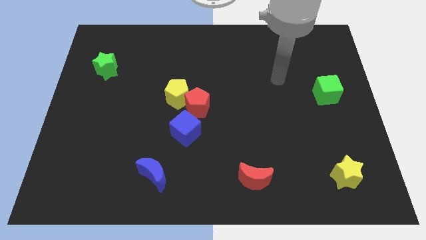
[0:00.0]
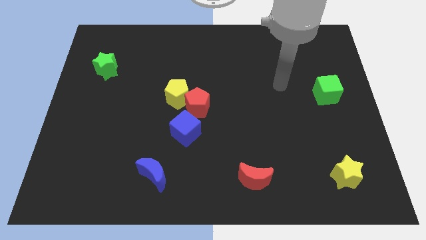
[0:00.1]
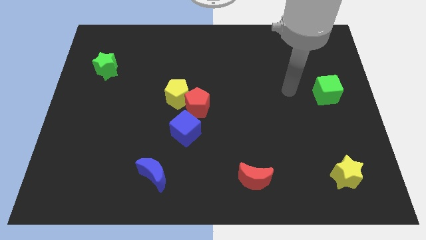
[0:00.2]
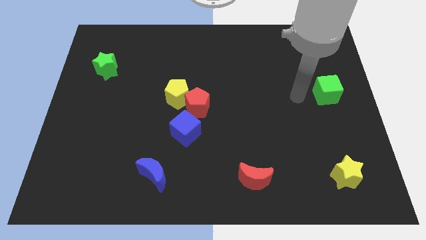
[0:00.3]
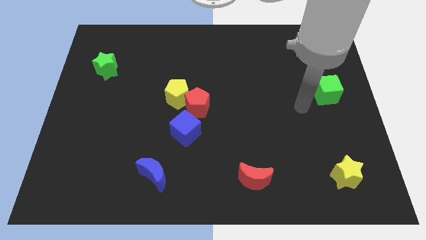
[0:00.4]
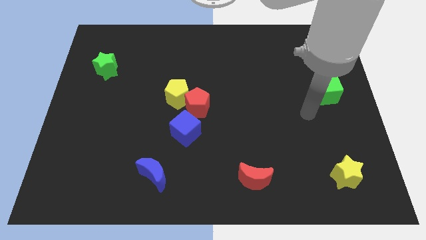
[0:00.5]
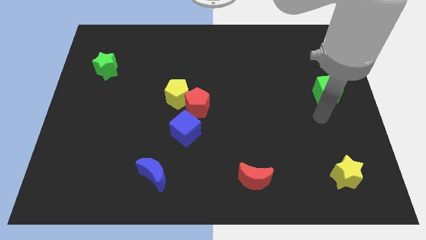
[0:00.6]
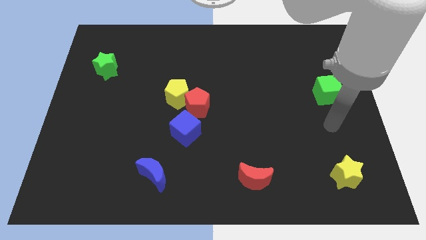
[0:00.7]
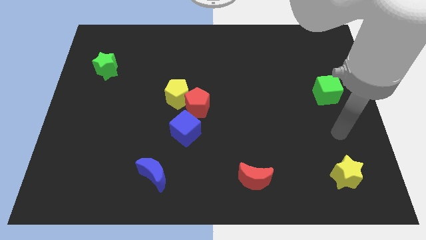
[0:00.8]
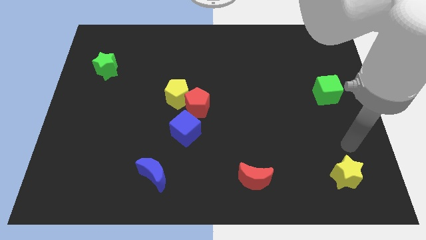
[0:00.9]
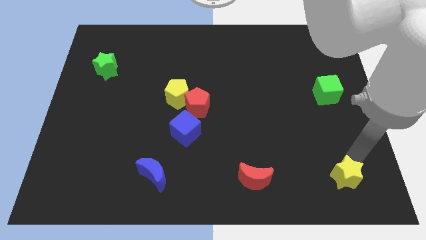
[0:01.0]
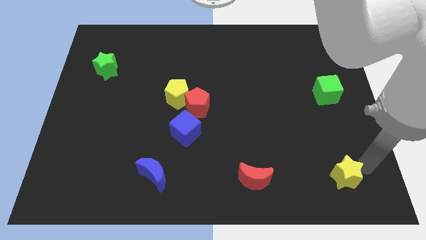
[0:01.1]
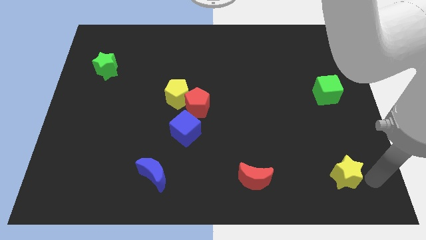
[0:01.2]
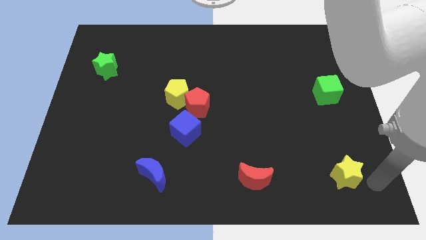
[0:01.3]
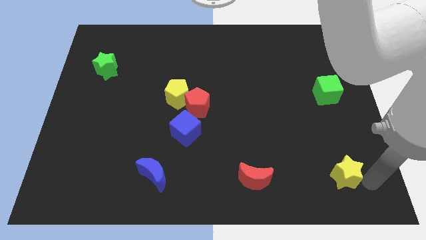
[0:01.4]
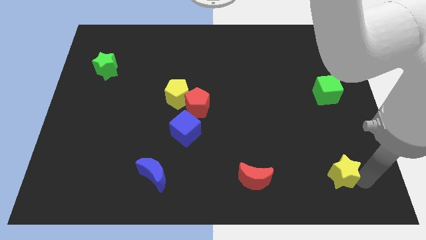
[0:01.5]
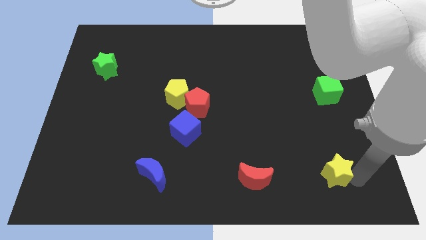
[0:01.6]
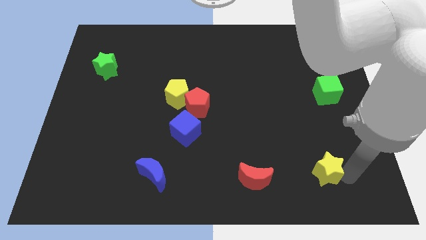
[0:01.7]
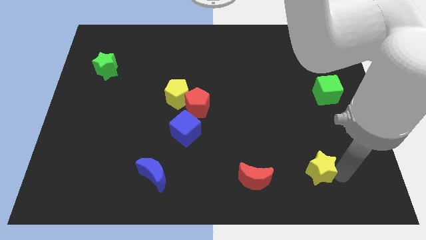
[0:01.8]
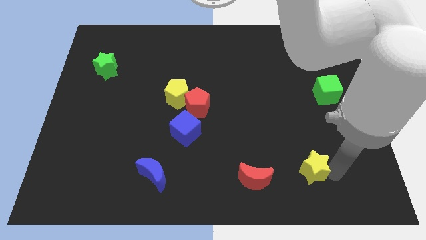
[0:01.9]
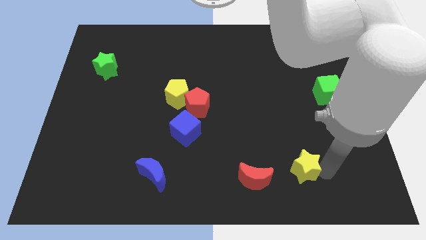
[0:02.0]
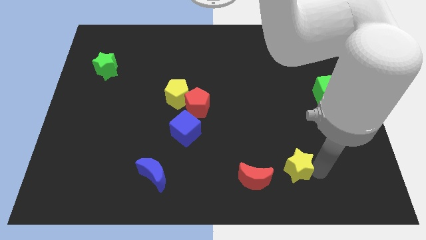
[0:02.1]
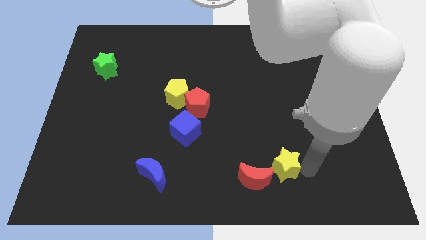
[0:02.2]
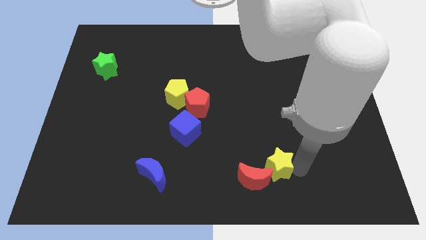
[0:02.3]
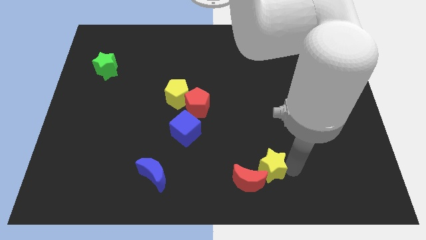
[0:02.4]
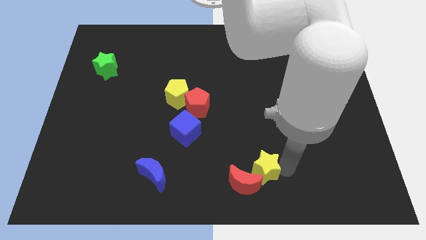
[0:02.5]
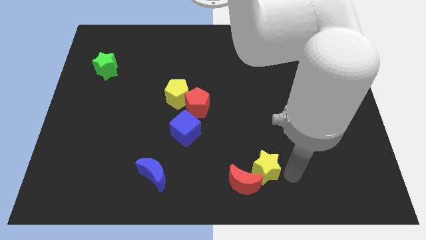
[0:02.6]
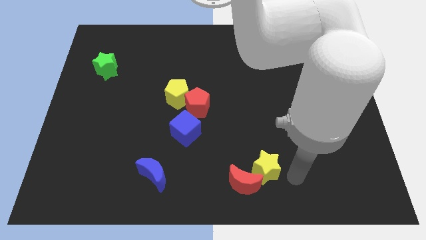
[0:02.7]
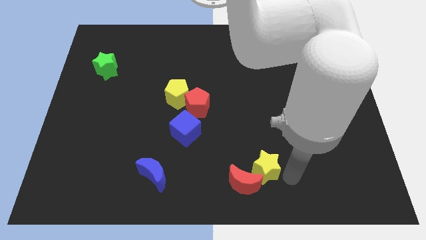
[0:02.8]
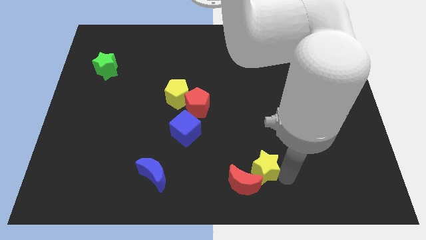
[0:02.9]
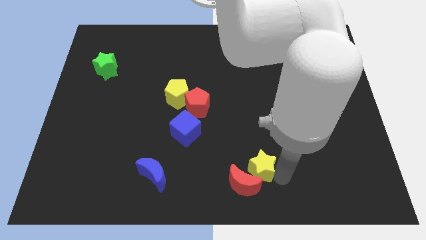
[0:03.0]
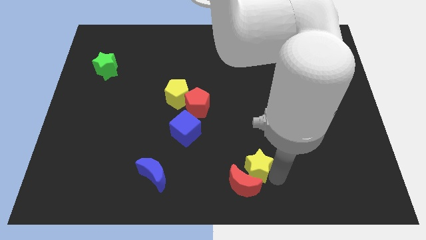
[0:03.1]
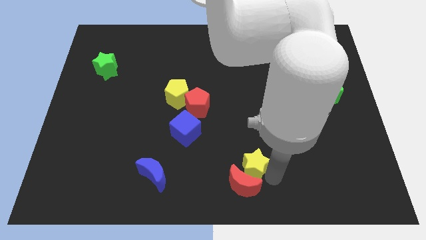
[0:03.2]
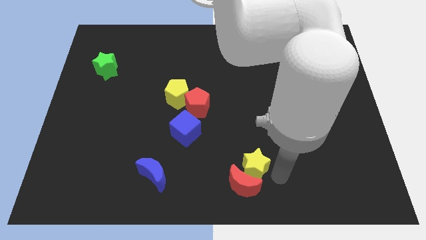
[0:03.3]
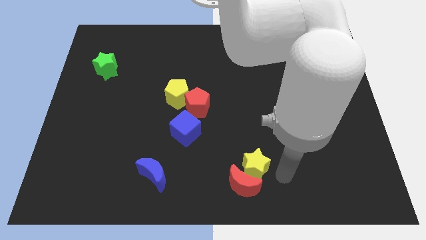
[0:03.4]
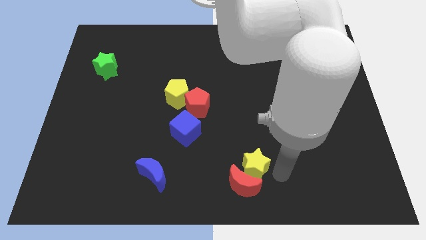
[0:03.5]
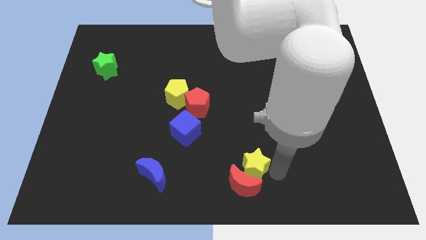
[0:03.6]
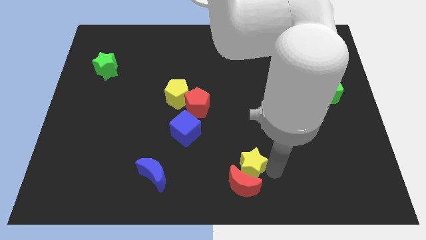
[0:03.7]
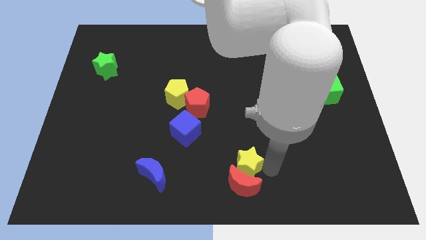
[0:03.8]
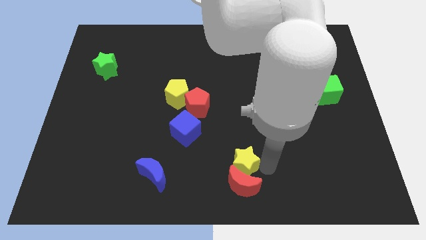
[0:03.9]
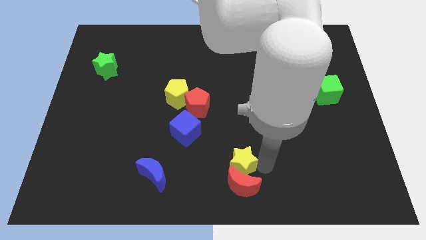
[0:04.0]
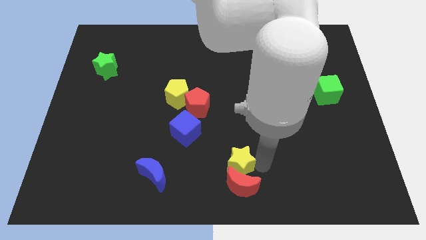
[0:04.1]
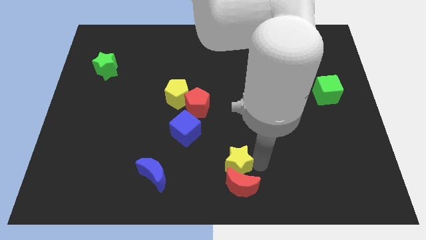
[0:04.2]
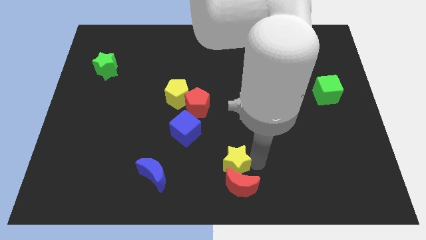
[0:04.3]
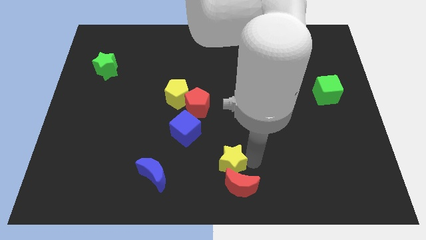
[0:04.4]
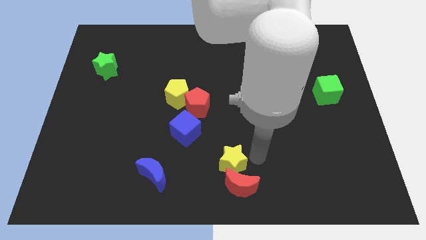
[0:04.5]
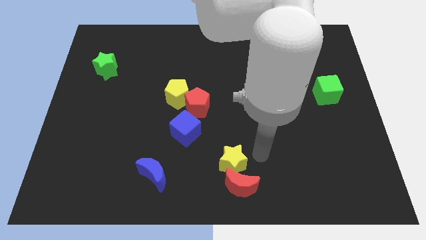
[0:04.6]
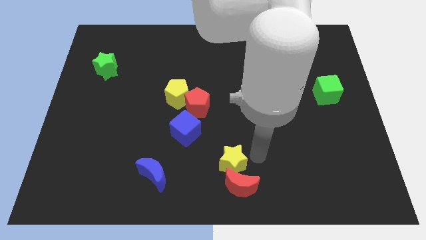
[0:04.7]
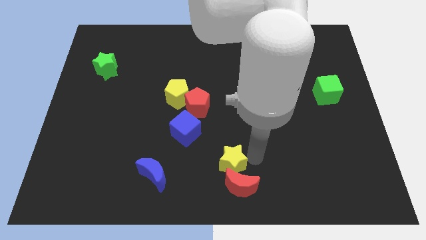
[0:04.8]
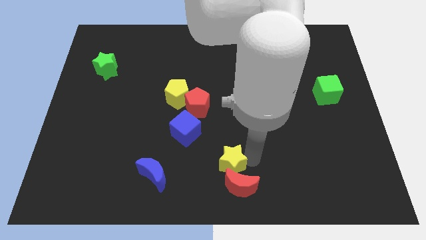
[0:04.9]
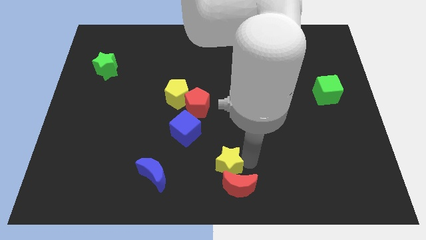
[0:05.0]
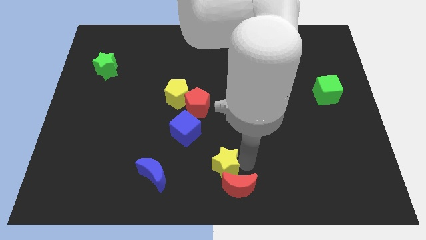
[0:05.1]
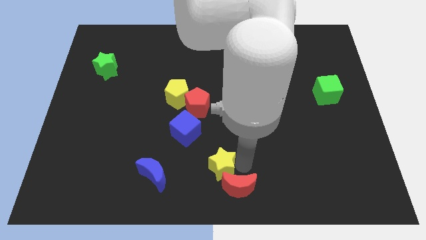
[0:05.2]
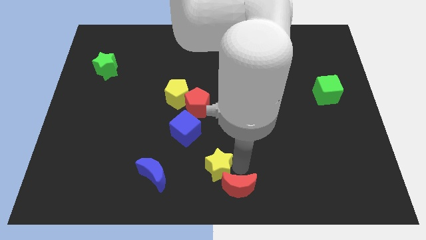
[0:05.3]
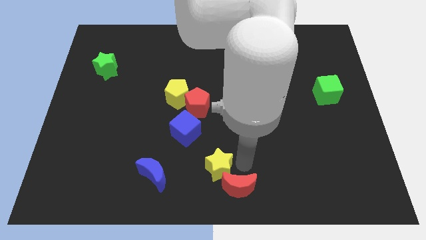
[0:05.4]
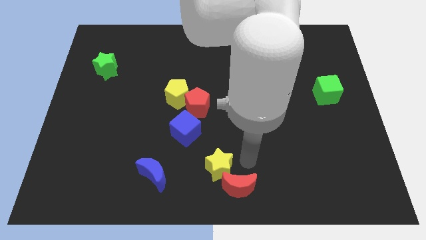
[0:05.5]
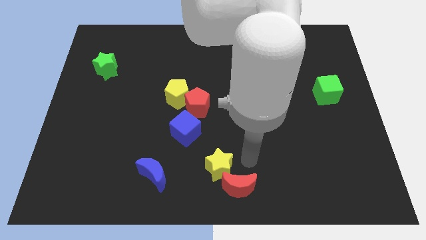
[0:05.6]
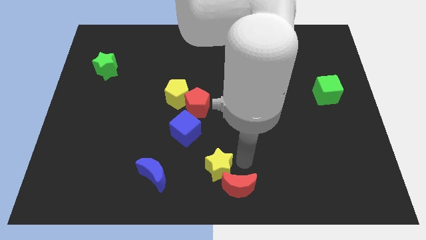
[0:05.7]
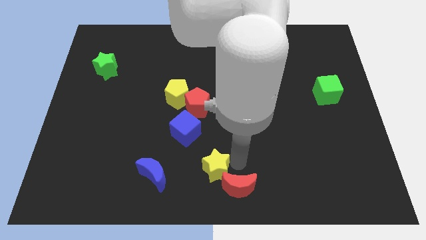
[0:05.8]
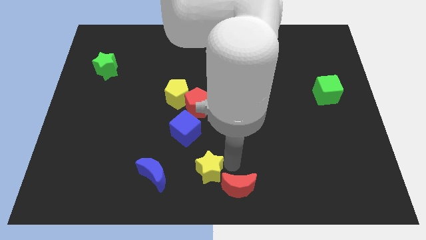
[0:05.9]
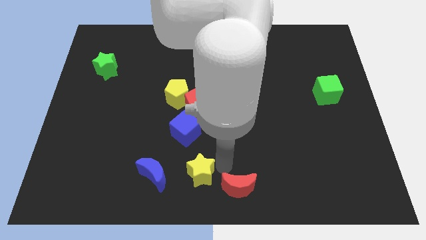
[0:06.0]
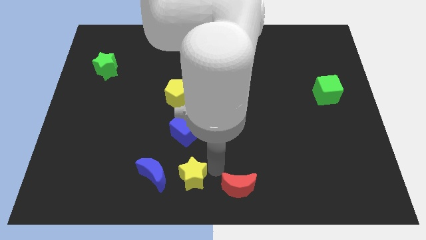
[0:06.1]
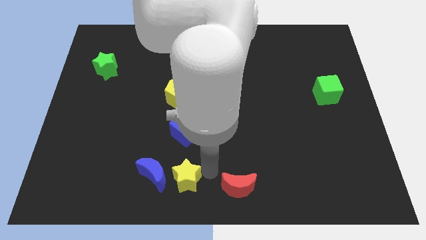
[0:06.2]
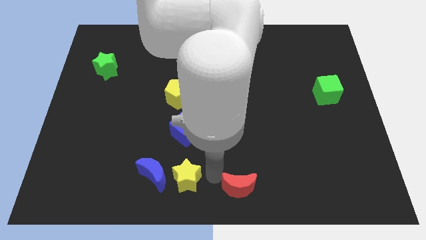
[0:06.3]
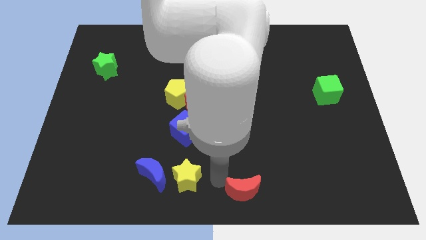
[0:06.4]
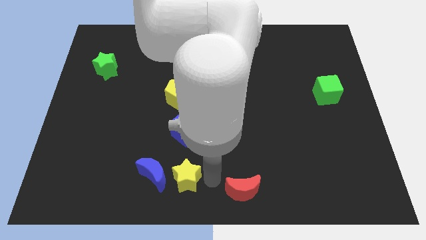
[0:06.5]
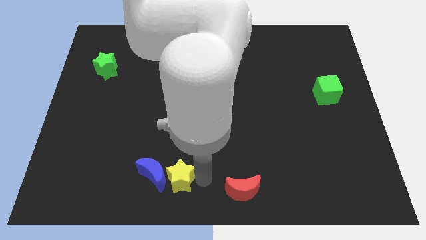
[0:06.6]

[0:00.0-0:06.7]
push the yellow star next to the blue moon
